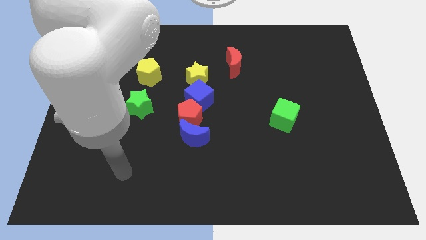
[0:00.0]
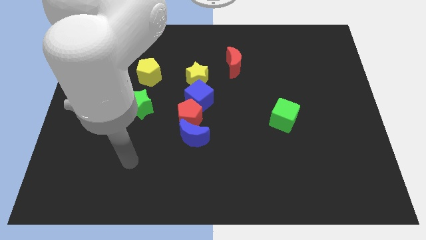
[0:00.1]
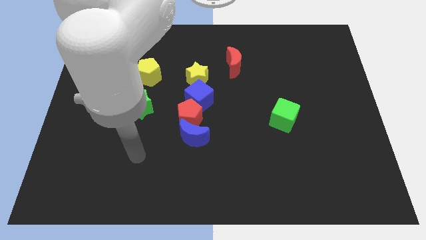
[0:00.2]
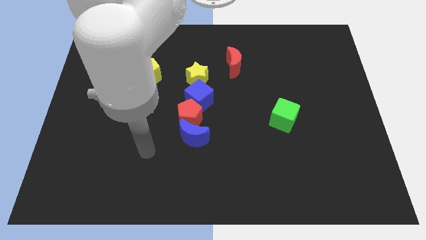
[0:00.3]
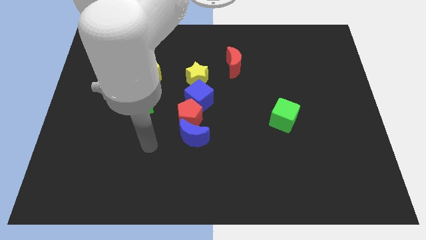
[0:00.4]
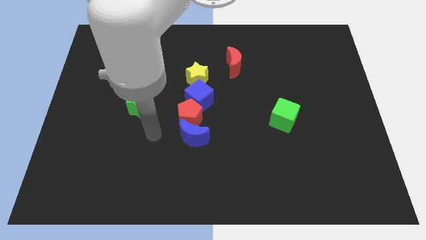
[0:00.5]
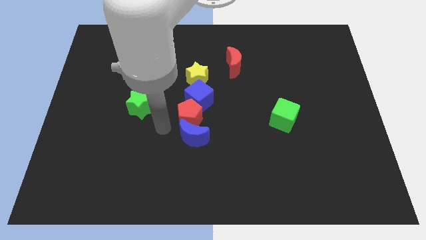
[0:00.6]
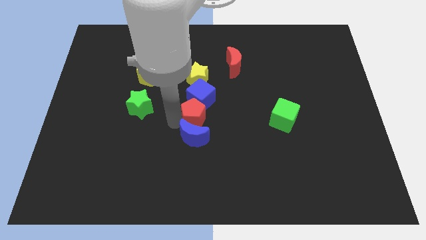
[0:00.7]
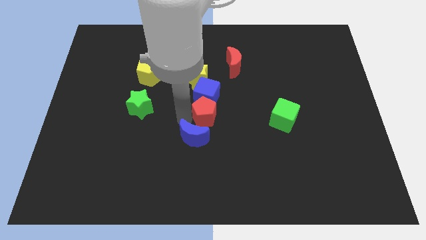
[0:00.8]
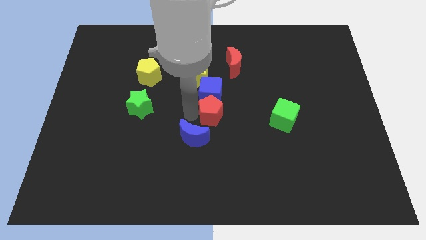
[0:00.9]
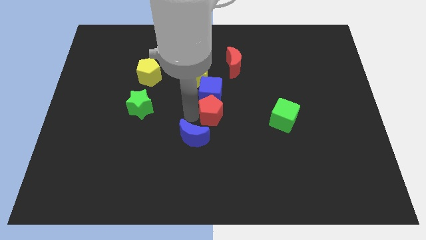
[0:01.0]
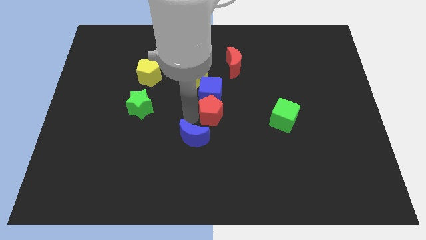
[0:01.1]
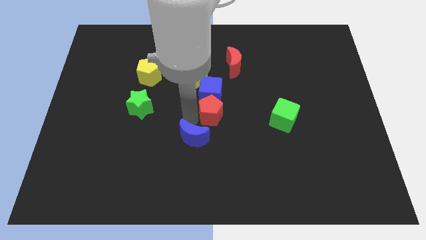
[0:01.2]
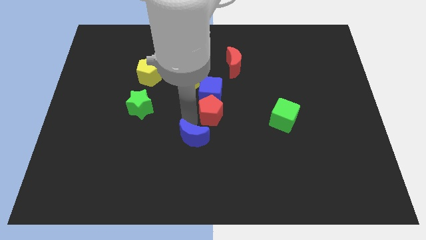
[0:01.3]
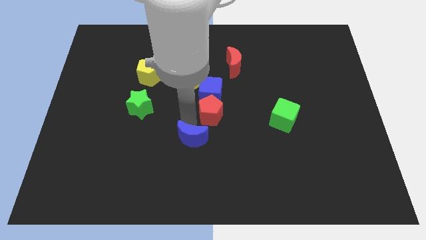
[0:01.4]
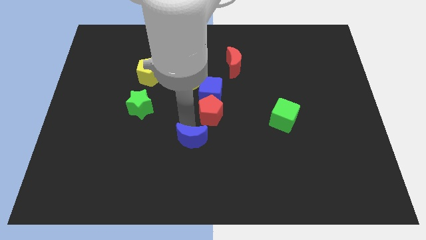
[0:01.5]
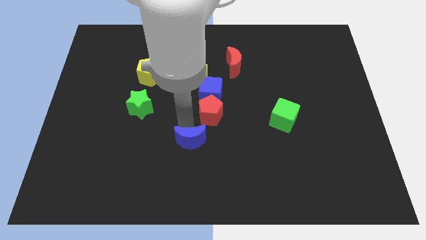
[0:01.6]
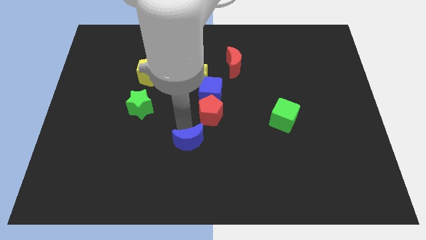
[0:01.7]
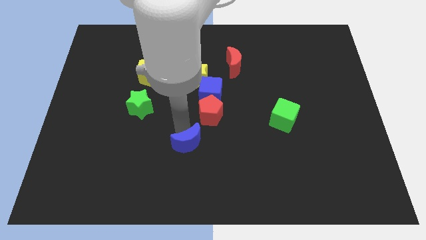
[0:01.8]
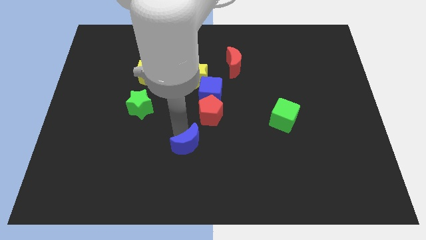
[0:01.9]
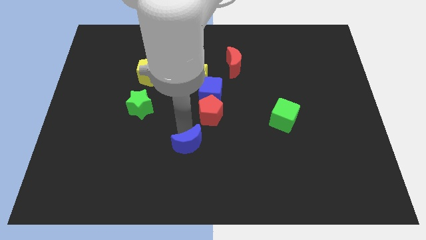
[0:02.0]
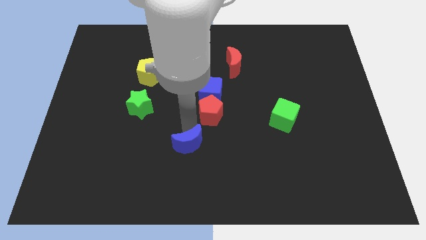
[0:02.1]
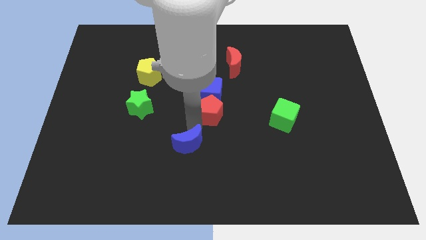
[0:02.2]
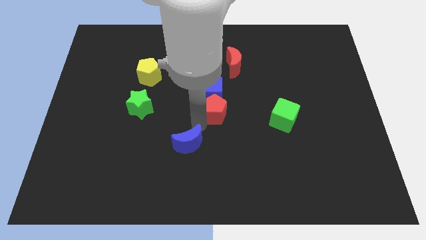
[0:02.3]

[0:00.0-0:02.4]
separate the blue moon from the red pentagon

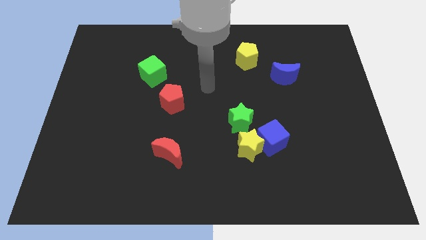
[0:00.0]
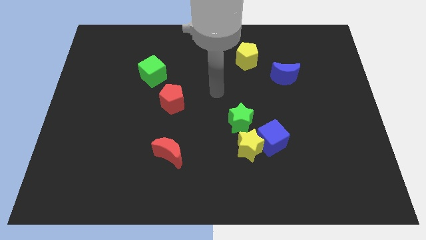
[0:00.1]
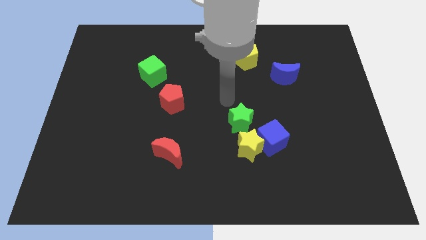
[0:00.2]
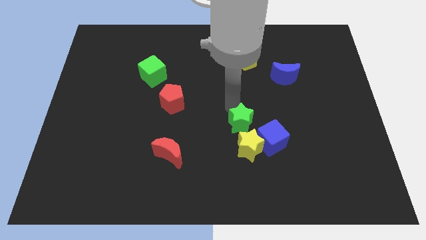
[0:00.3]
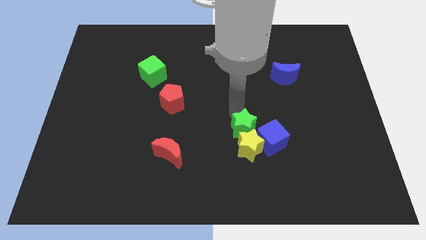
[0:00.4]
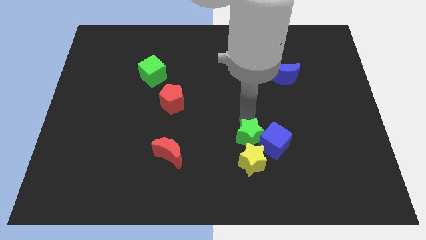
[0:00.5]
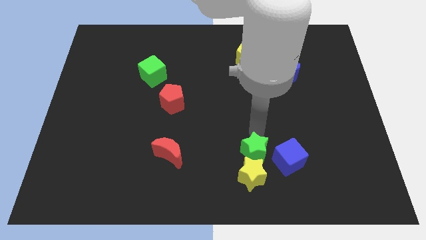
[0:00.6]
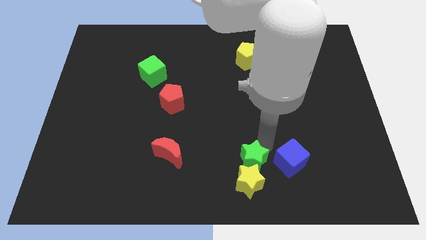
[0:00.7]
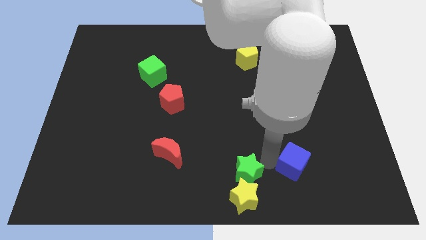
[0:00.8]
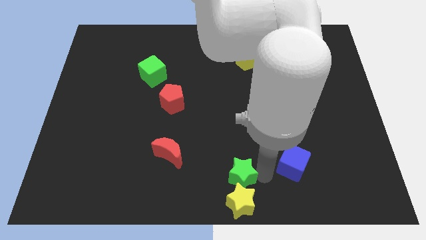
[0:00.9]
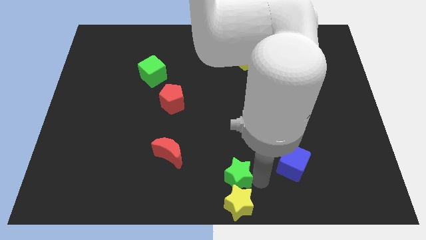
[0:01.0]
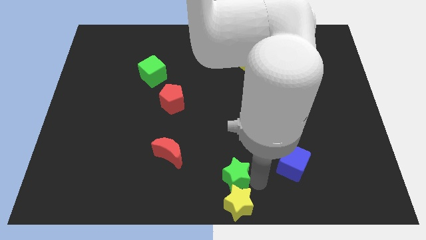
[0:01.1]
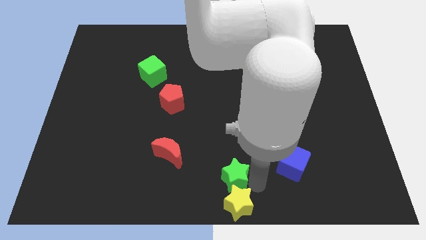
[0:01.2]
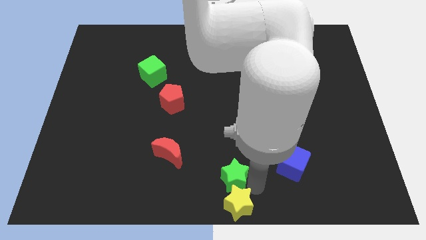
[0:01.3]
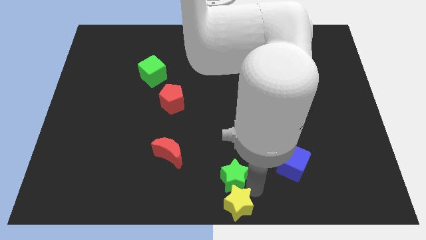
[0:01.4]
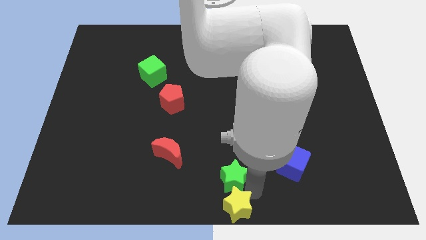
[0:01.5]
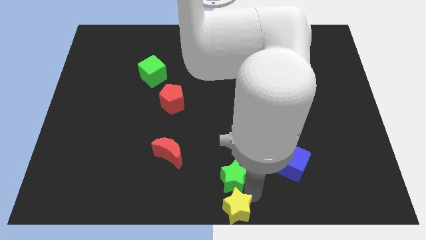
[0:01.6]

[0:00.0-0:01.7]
separate the yellow star from the blue cube and green star

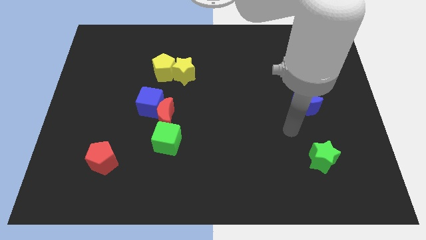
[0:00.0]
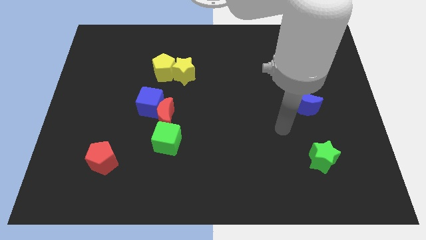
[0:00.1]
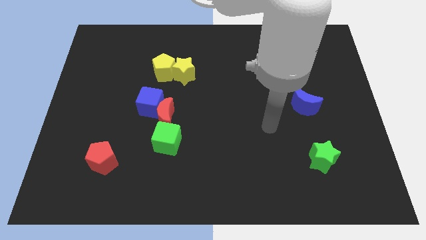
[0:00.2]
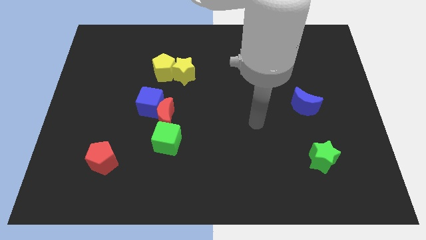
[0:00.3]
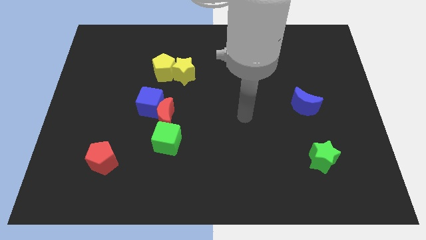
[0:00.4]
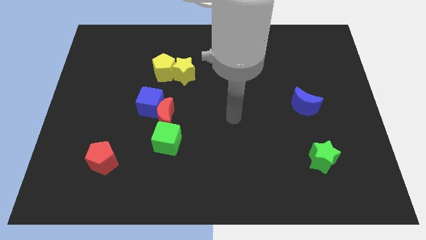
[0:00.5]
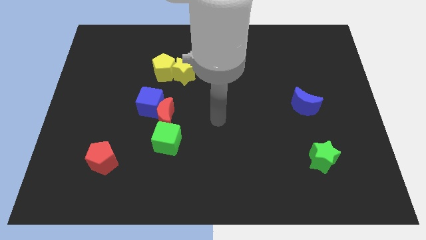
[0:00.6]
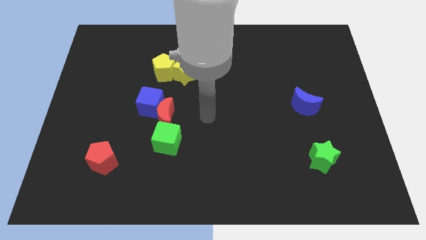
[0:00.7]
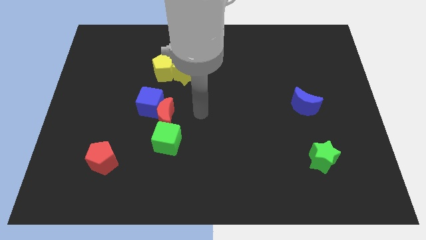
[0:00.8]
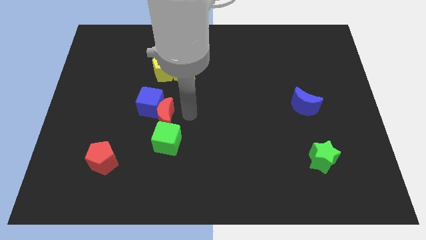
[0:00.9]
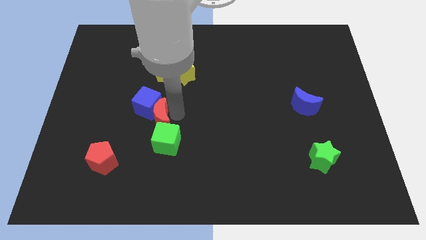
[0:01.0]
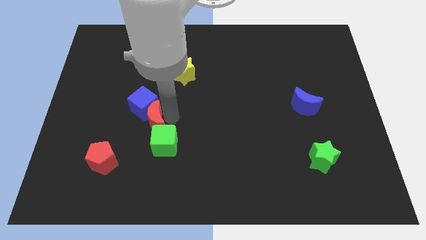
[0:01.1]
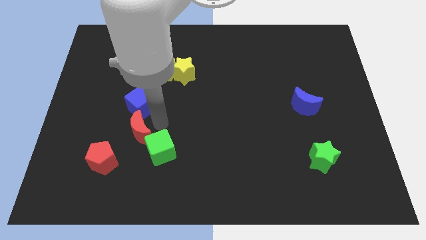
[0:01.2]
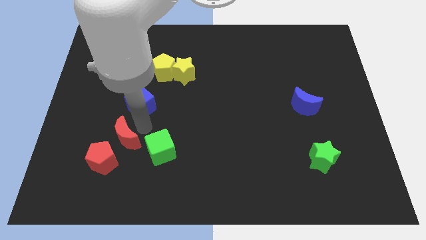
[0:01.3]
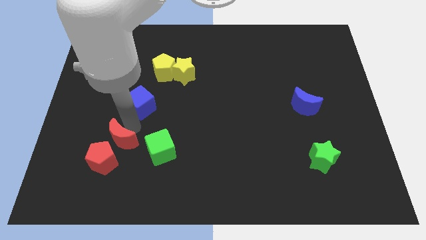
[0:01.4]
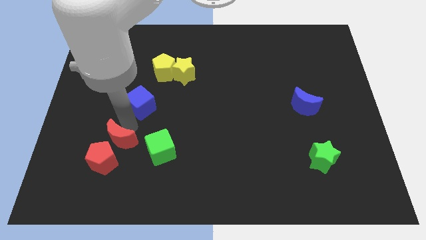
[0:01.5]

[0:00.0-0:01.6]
move the blue cube away from the red moon

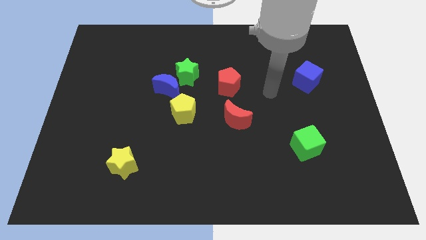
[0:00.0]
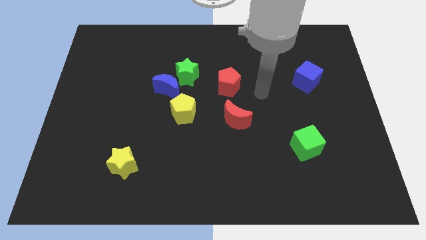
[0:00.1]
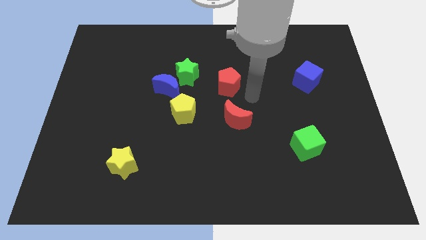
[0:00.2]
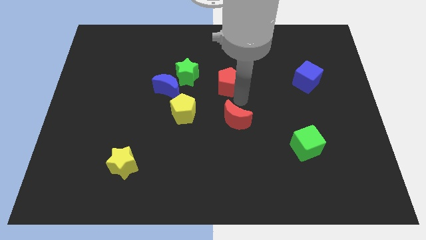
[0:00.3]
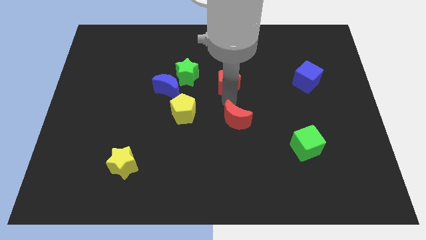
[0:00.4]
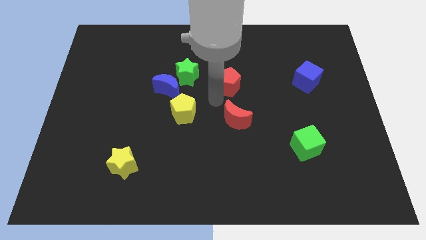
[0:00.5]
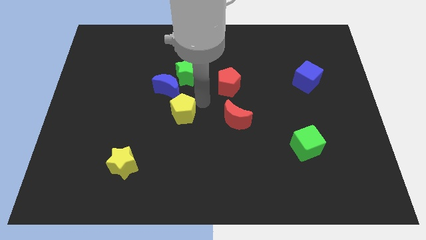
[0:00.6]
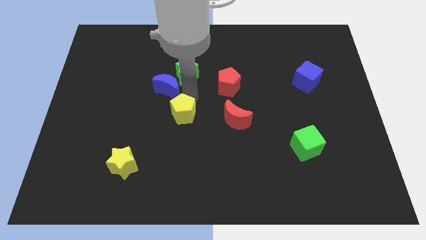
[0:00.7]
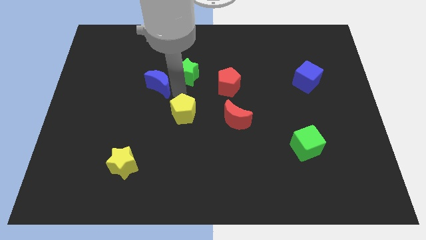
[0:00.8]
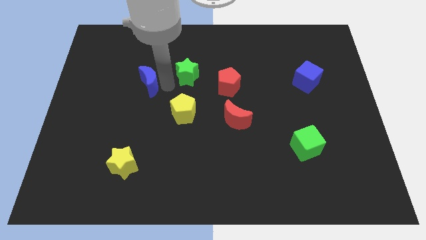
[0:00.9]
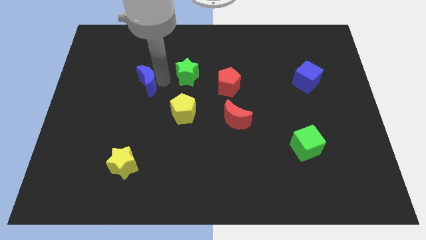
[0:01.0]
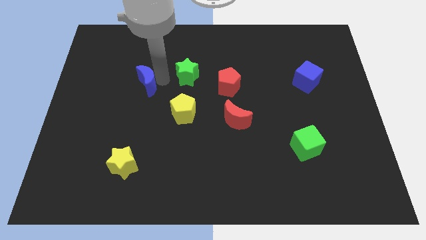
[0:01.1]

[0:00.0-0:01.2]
move the green star away from the blue moon

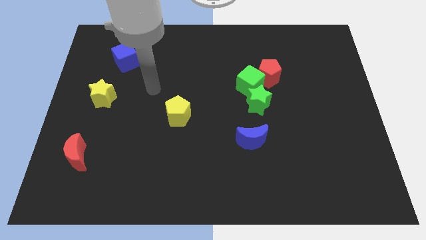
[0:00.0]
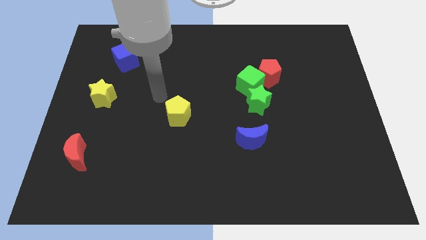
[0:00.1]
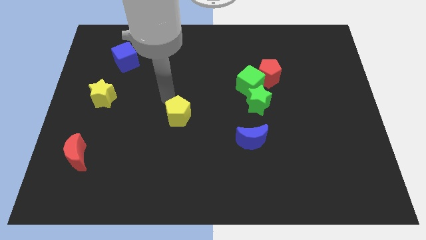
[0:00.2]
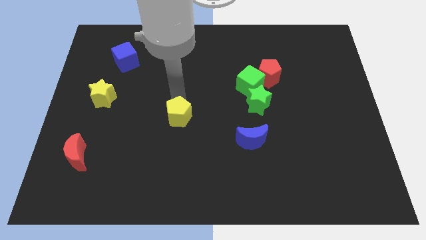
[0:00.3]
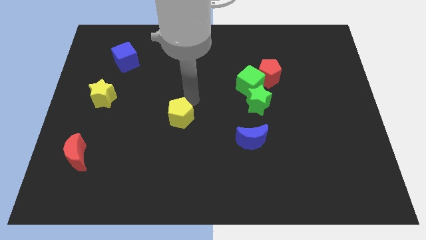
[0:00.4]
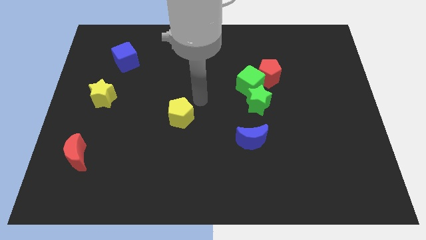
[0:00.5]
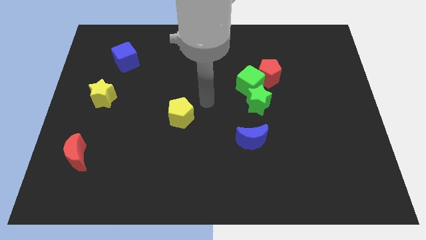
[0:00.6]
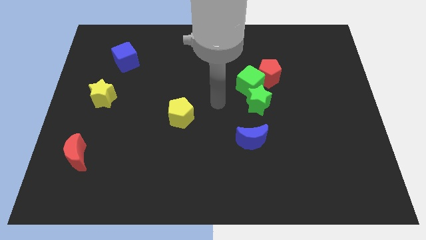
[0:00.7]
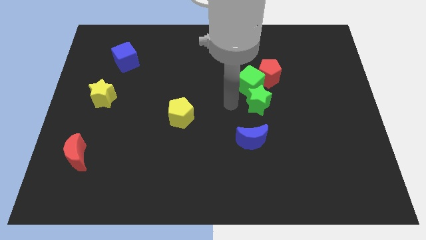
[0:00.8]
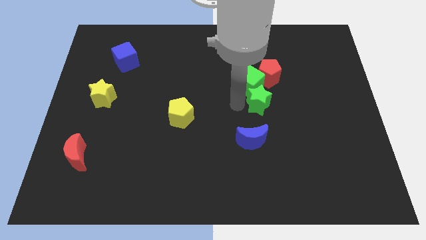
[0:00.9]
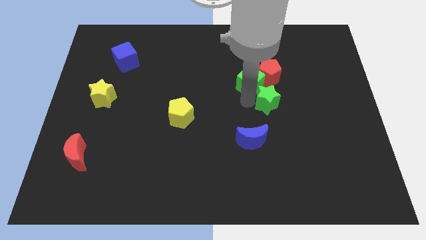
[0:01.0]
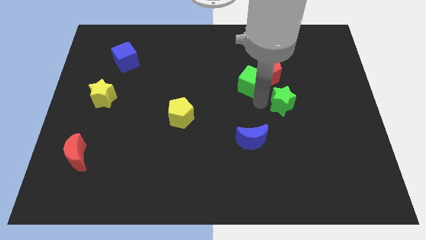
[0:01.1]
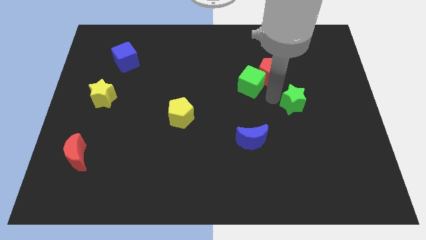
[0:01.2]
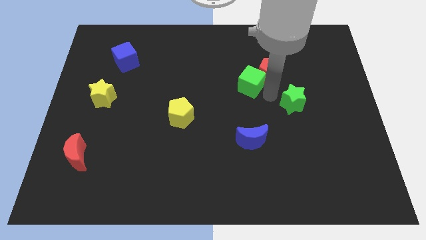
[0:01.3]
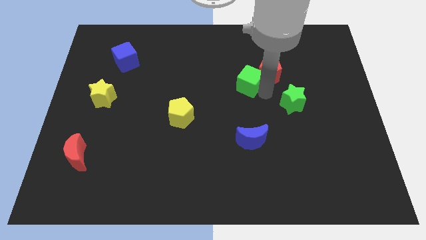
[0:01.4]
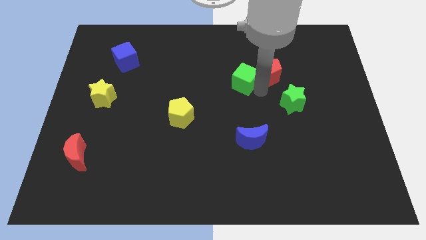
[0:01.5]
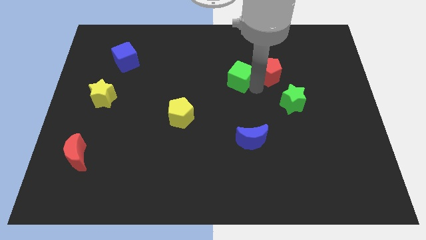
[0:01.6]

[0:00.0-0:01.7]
separate the green cube from the red pentagon and green star

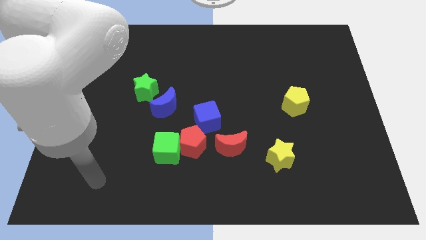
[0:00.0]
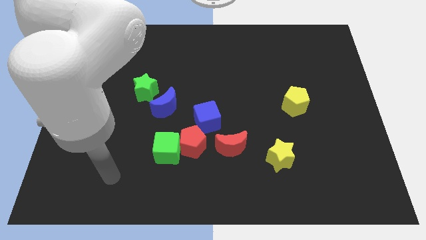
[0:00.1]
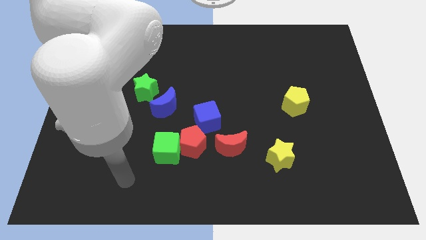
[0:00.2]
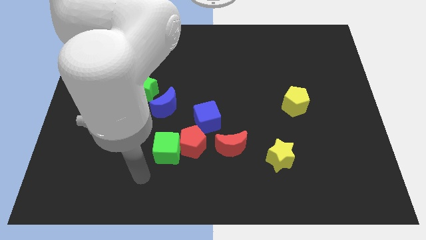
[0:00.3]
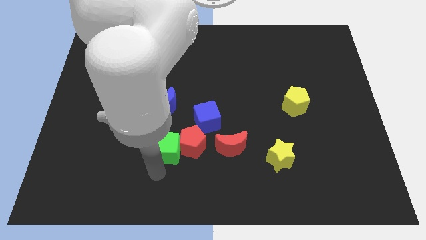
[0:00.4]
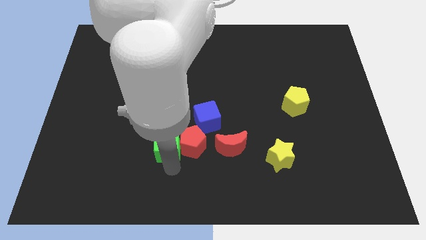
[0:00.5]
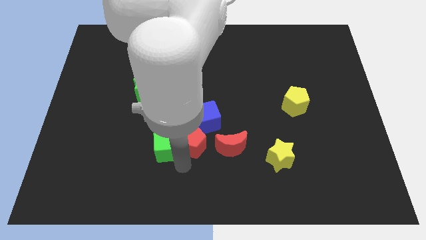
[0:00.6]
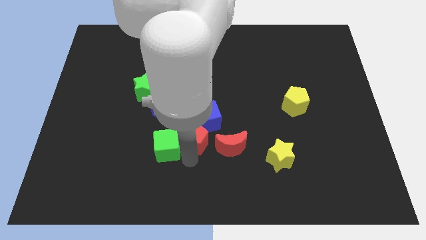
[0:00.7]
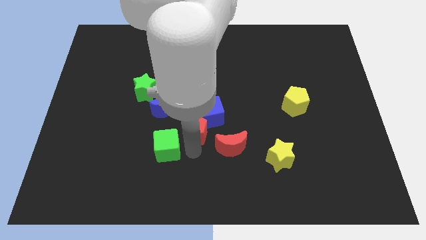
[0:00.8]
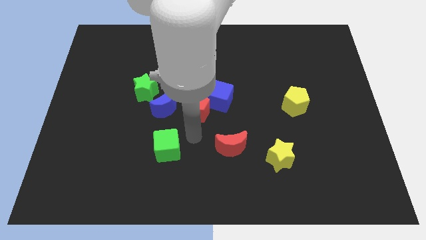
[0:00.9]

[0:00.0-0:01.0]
pull the green cube apart from the red pentagon
